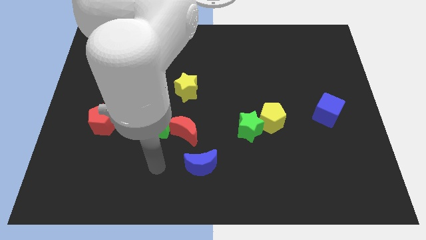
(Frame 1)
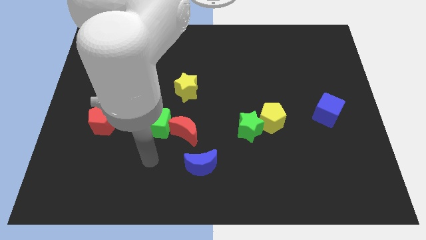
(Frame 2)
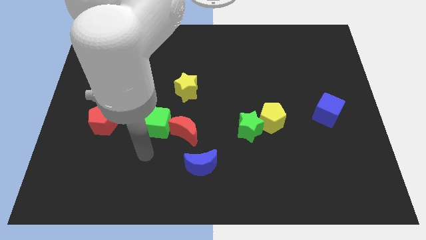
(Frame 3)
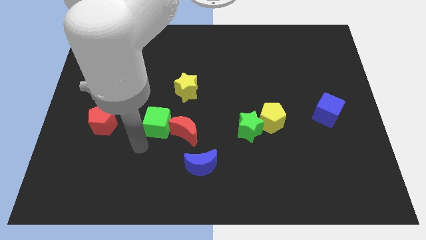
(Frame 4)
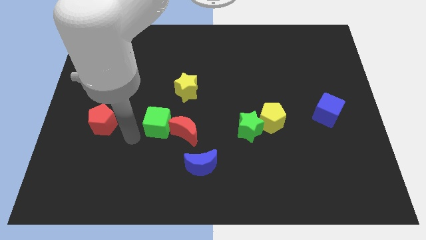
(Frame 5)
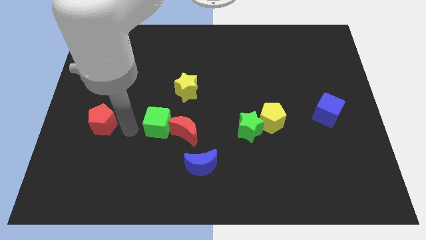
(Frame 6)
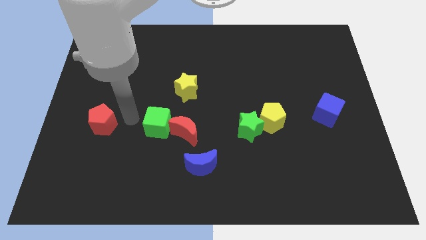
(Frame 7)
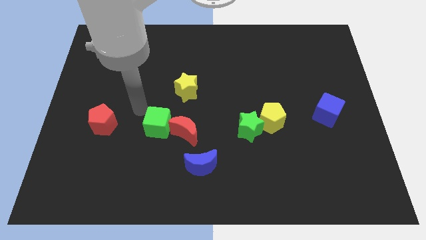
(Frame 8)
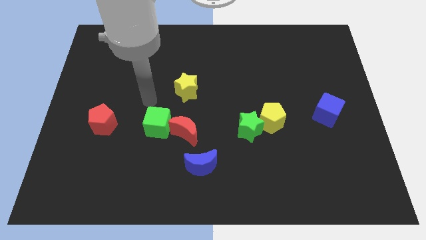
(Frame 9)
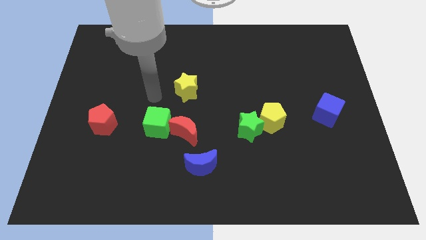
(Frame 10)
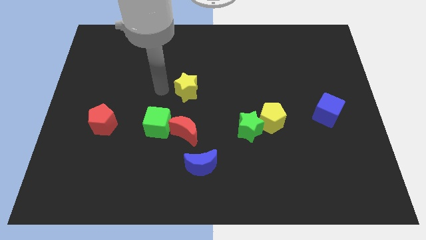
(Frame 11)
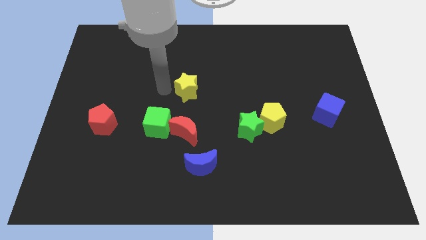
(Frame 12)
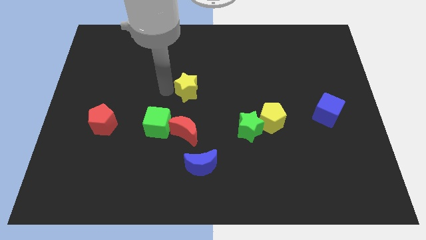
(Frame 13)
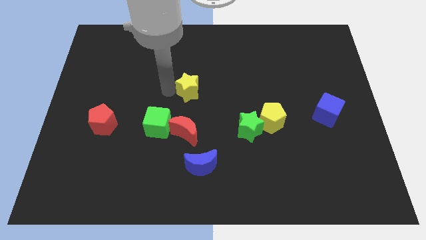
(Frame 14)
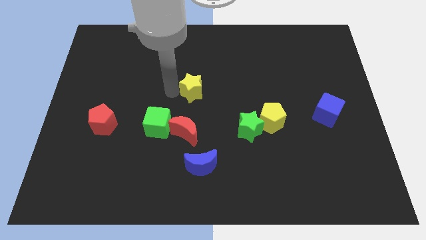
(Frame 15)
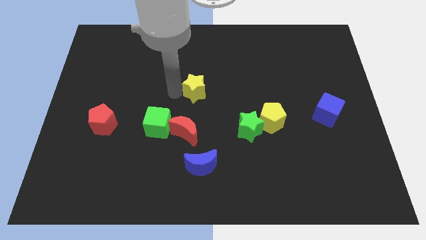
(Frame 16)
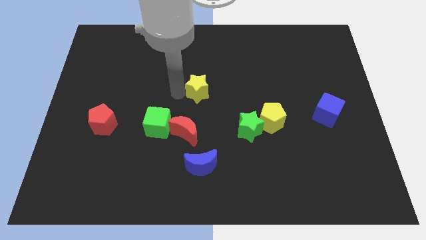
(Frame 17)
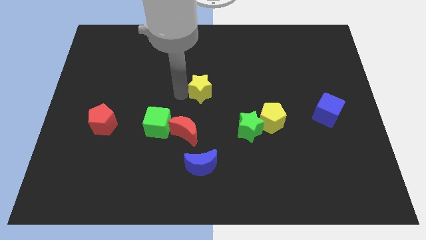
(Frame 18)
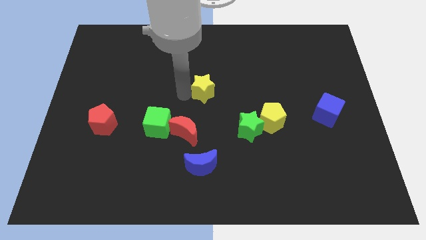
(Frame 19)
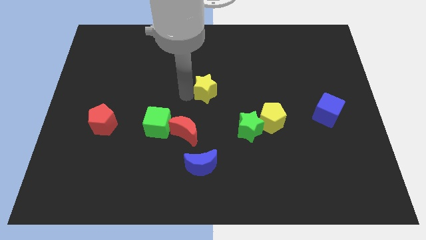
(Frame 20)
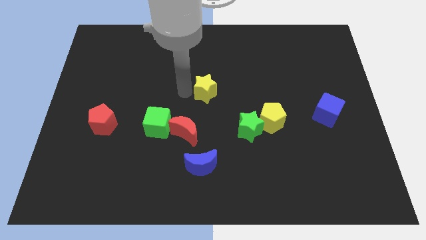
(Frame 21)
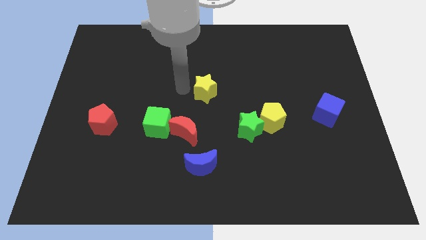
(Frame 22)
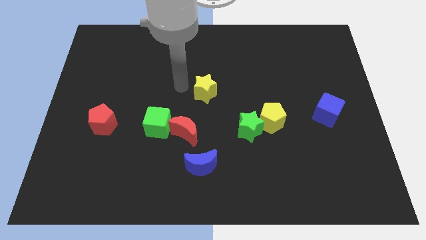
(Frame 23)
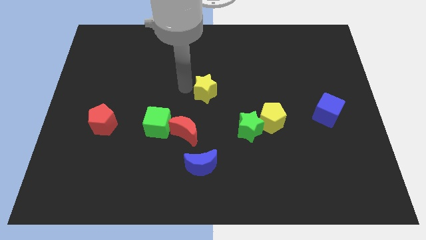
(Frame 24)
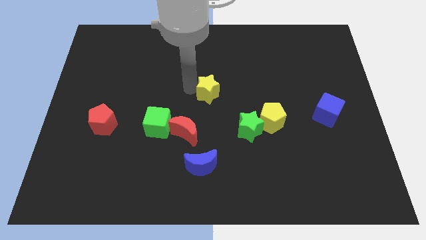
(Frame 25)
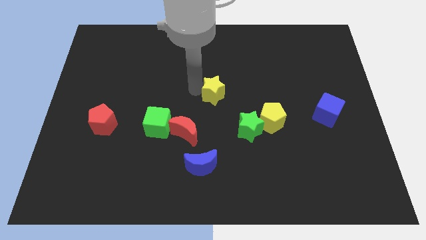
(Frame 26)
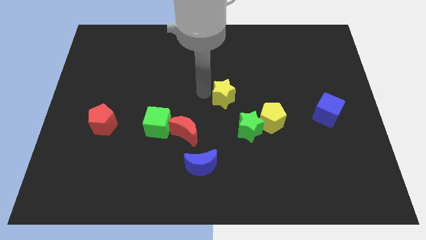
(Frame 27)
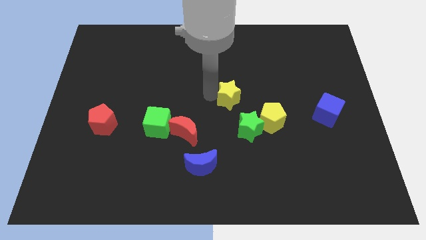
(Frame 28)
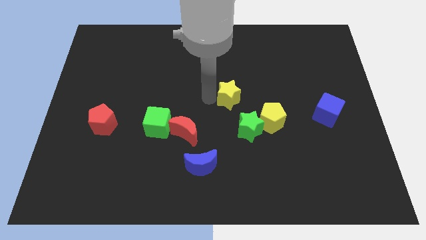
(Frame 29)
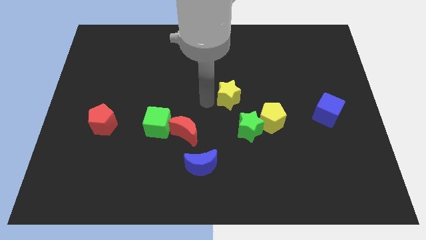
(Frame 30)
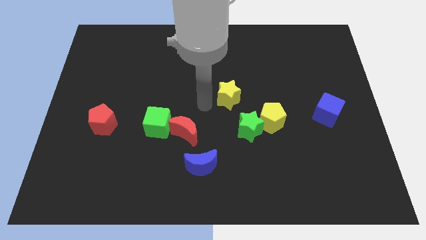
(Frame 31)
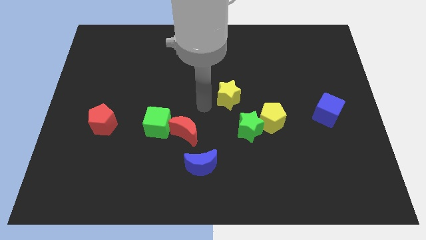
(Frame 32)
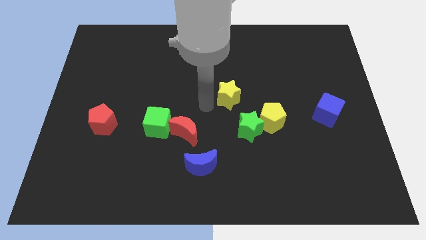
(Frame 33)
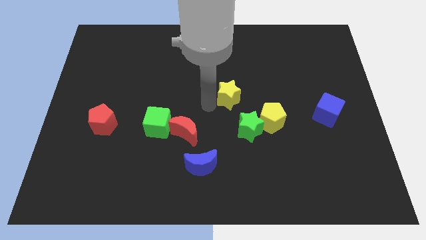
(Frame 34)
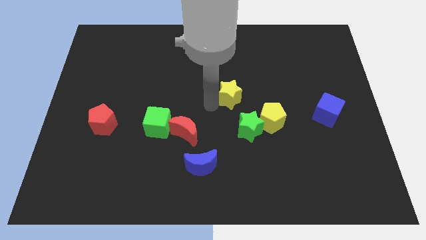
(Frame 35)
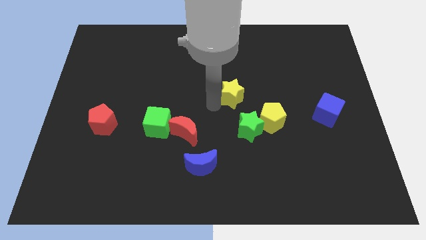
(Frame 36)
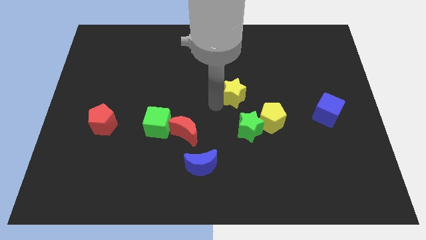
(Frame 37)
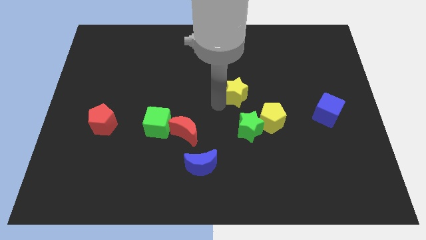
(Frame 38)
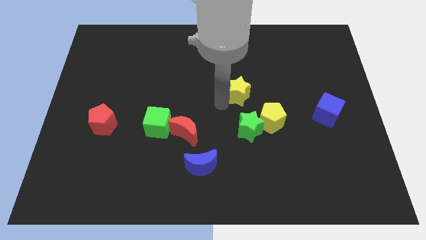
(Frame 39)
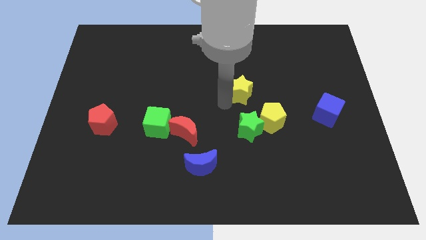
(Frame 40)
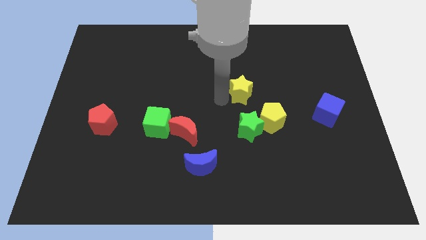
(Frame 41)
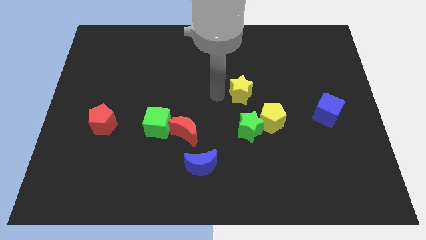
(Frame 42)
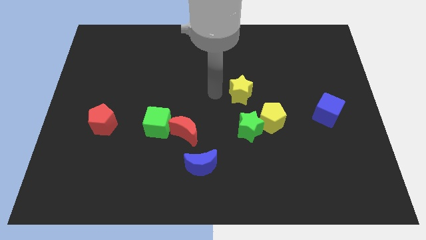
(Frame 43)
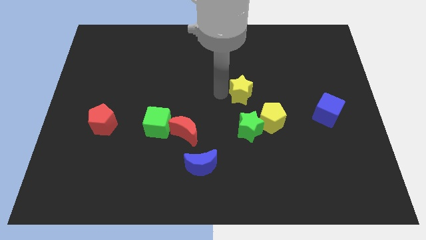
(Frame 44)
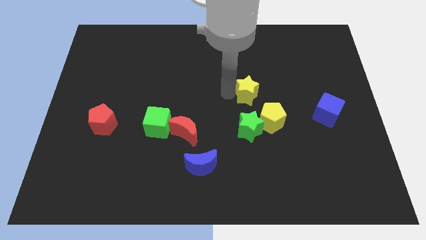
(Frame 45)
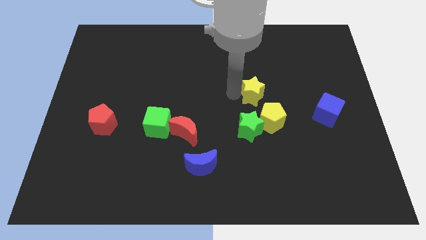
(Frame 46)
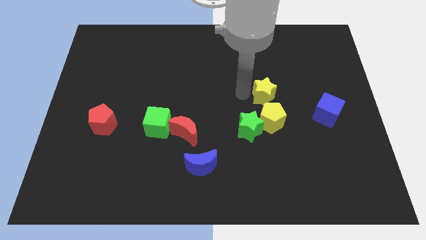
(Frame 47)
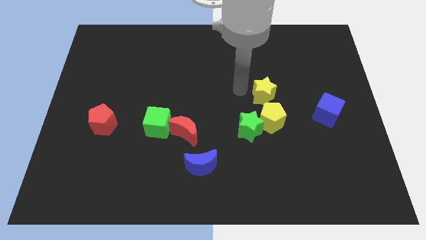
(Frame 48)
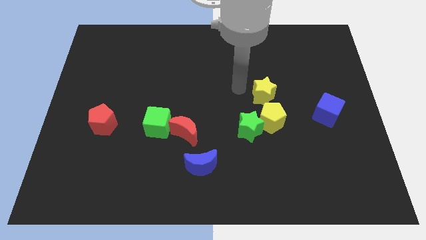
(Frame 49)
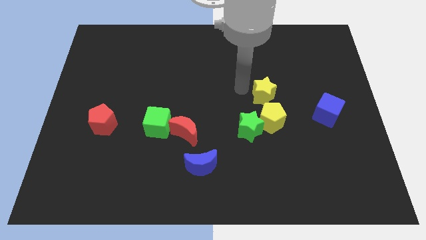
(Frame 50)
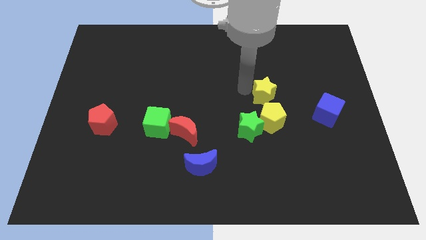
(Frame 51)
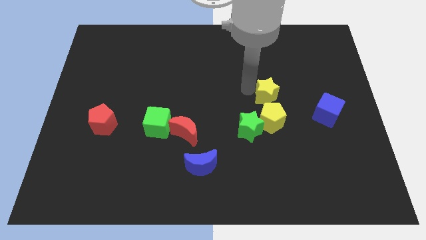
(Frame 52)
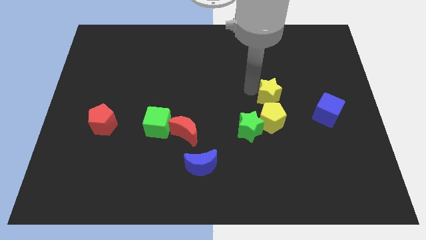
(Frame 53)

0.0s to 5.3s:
move the yellow star diagonally up and to the right of the yellow pentagon
